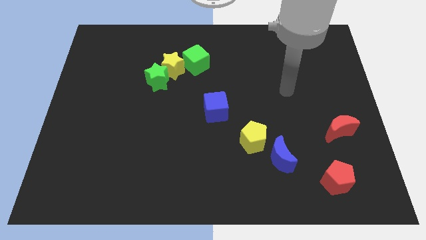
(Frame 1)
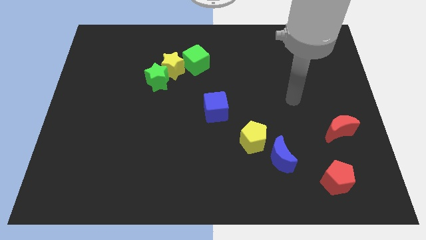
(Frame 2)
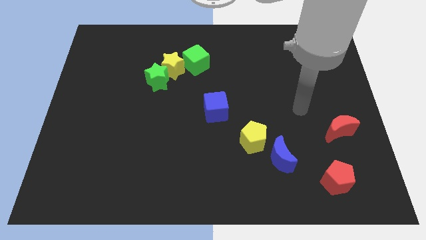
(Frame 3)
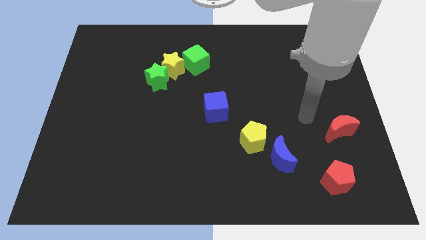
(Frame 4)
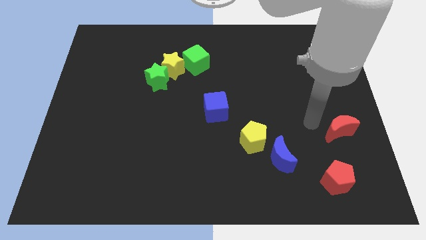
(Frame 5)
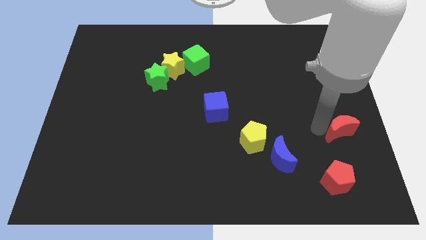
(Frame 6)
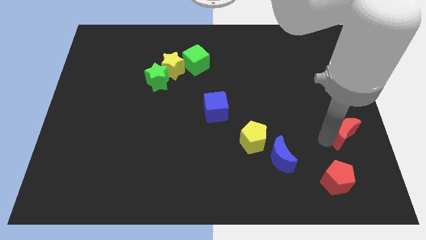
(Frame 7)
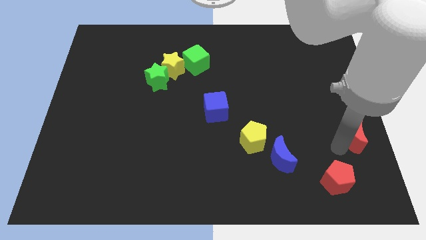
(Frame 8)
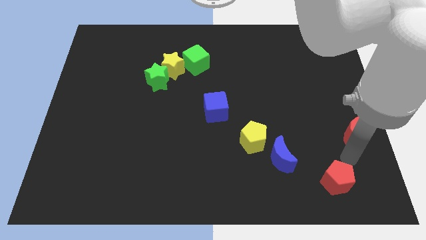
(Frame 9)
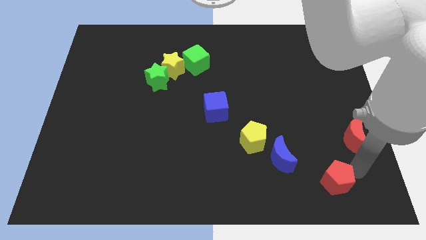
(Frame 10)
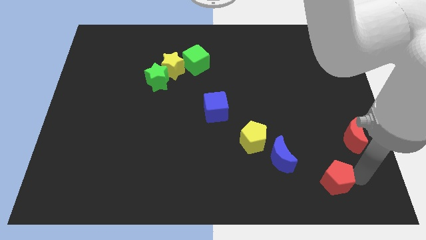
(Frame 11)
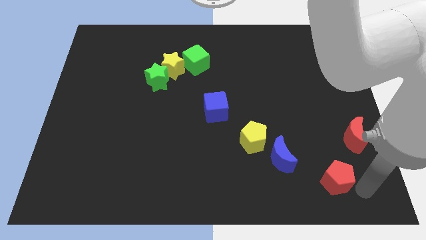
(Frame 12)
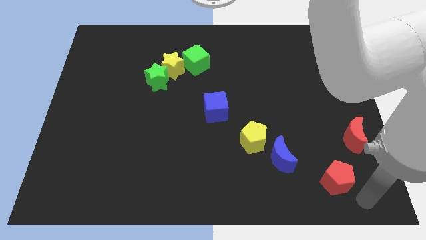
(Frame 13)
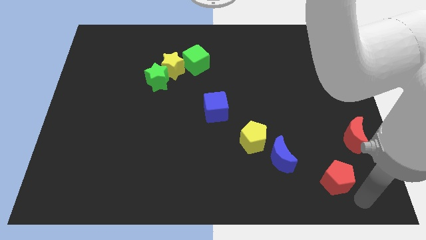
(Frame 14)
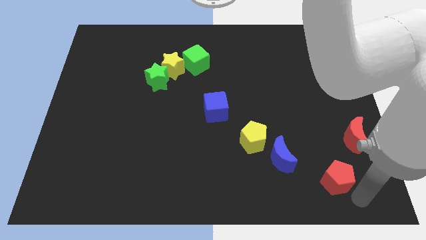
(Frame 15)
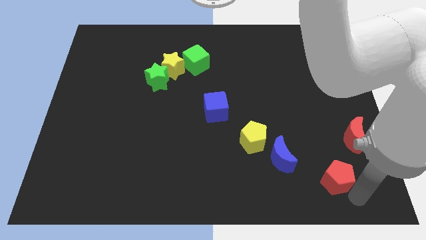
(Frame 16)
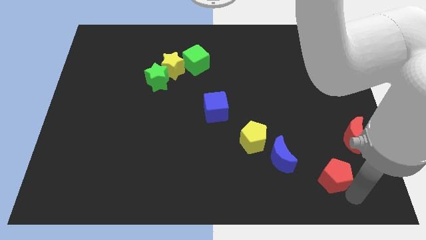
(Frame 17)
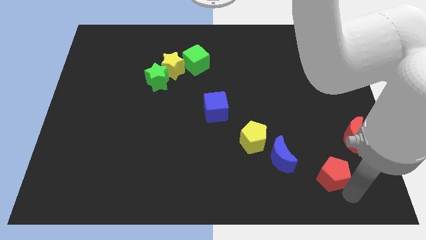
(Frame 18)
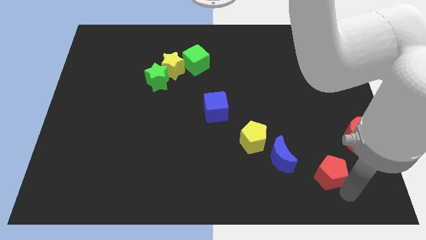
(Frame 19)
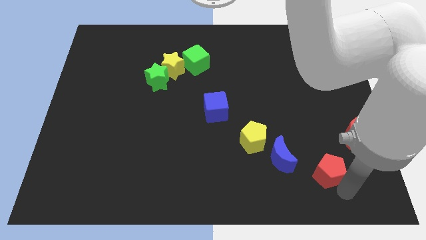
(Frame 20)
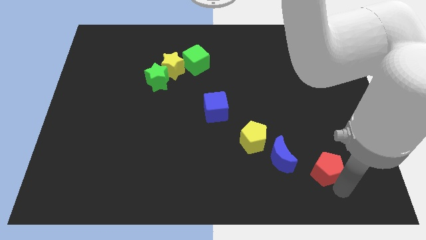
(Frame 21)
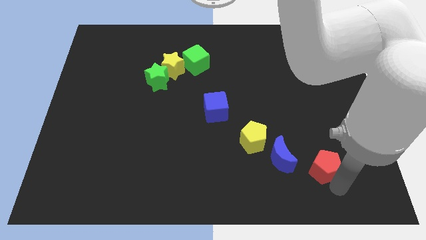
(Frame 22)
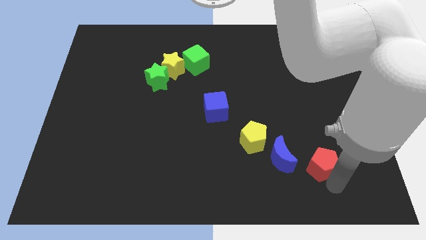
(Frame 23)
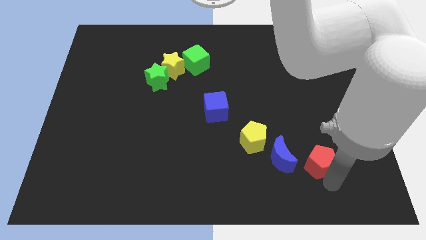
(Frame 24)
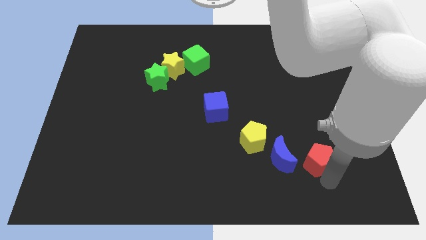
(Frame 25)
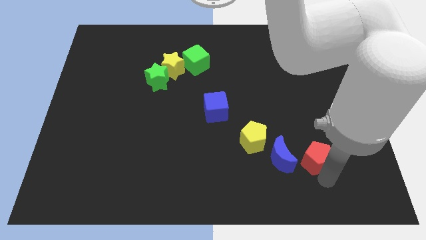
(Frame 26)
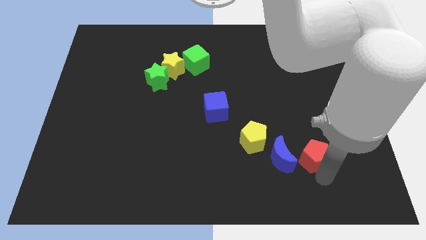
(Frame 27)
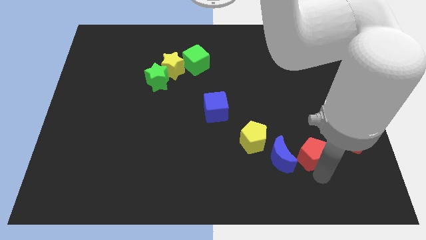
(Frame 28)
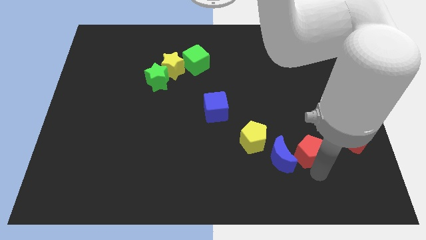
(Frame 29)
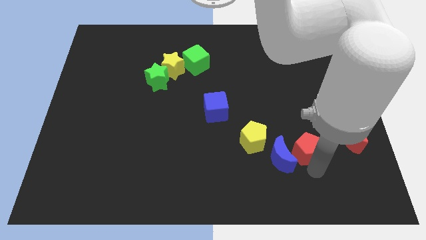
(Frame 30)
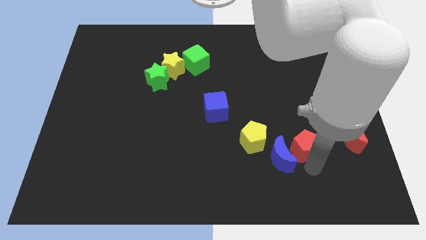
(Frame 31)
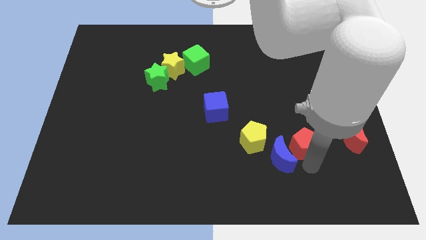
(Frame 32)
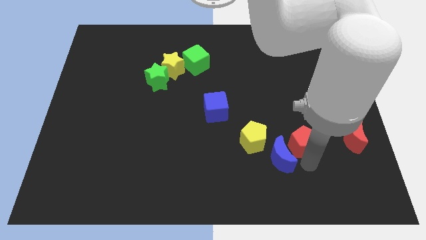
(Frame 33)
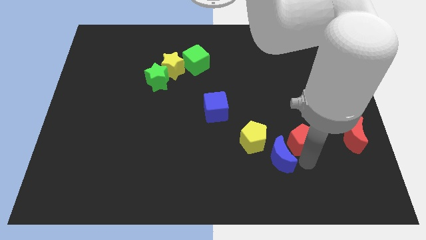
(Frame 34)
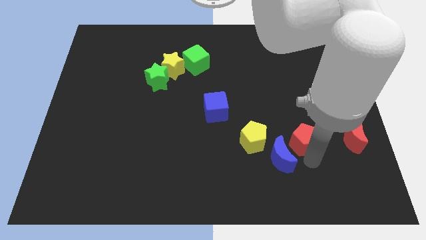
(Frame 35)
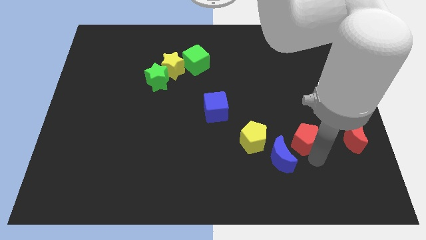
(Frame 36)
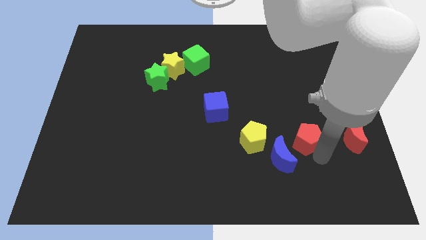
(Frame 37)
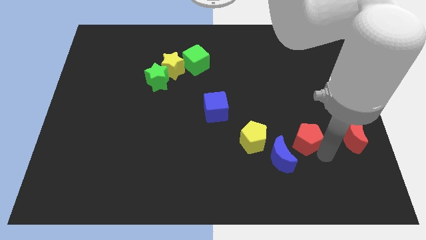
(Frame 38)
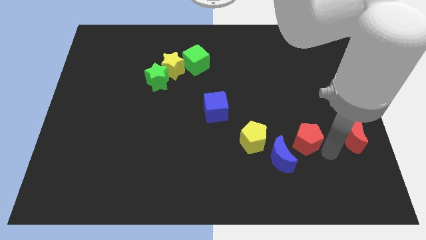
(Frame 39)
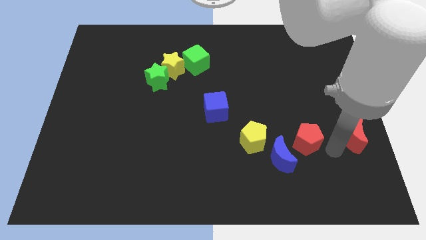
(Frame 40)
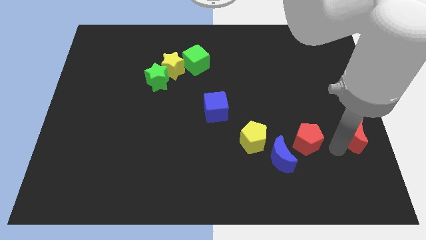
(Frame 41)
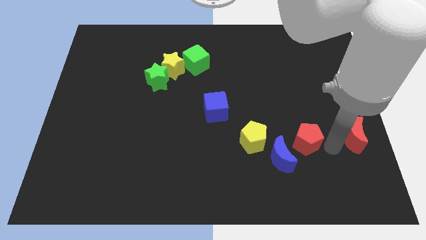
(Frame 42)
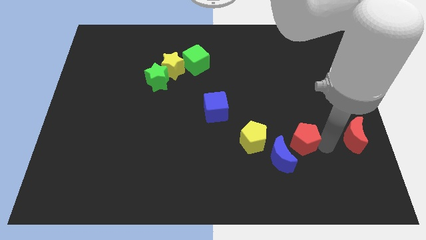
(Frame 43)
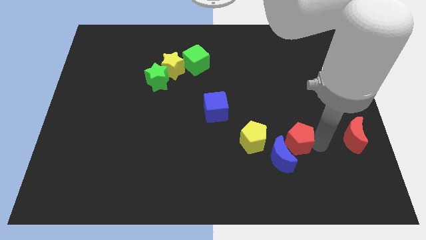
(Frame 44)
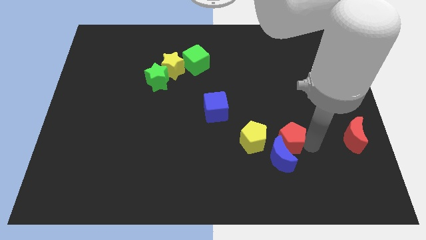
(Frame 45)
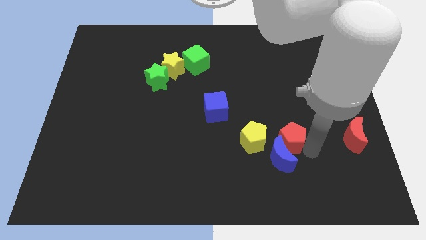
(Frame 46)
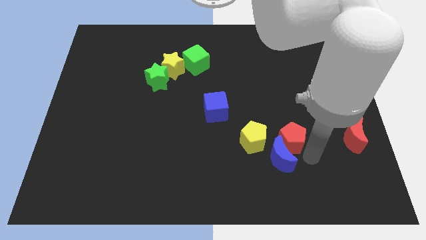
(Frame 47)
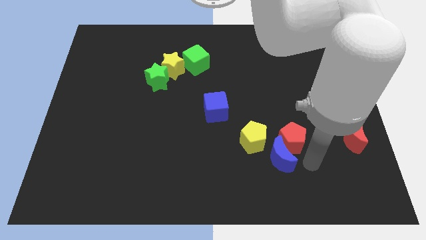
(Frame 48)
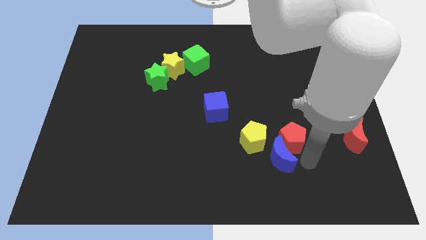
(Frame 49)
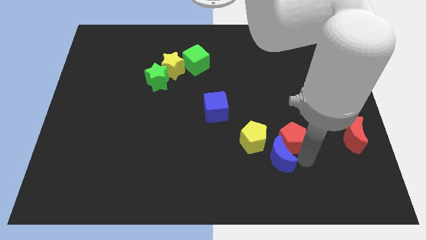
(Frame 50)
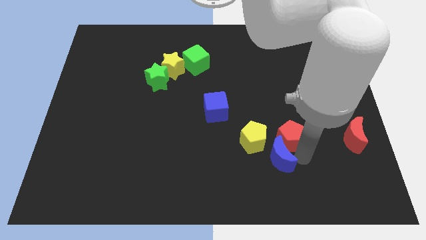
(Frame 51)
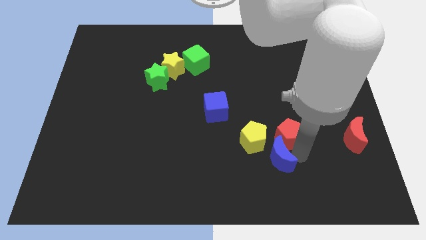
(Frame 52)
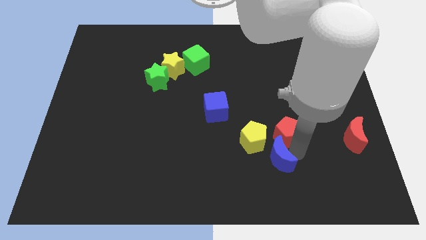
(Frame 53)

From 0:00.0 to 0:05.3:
slide the red pentagon to the top right side of the yellow pentagon

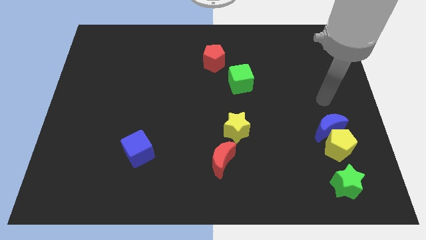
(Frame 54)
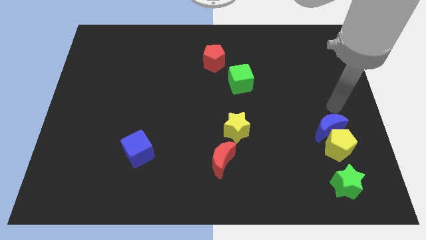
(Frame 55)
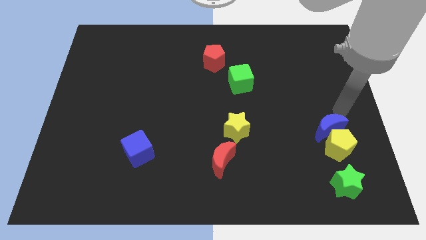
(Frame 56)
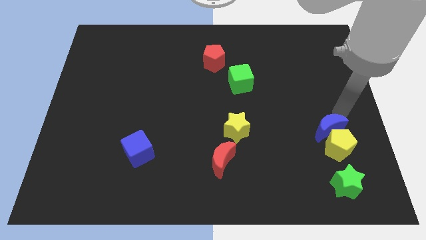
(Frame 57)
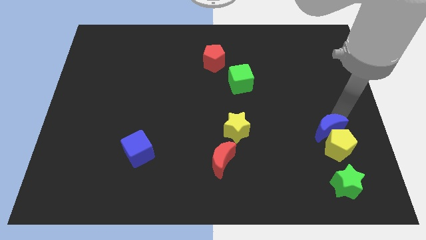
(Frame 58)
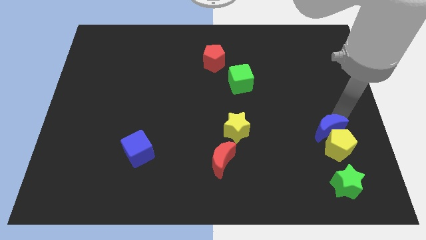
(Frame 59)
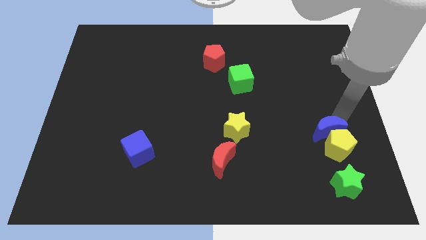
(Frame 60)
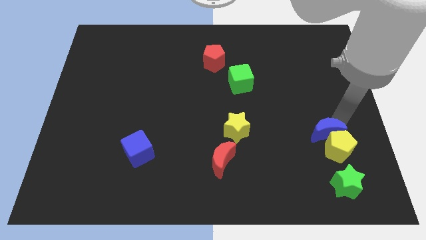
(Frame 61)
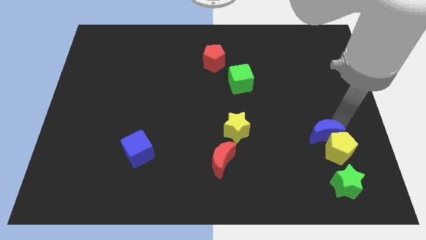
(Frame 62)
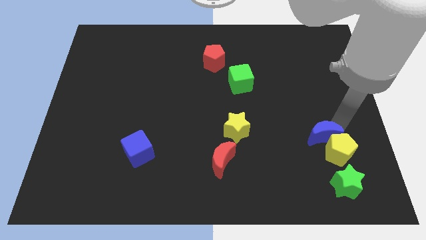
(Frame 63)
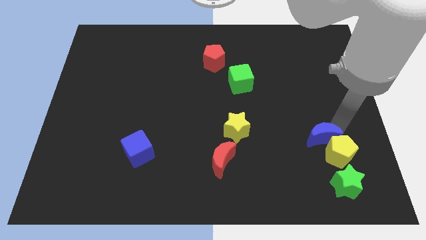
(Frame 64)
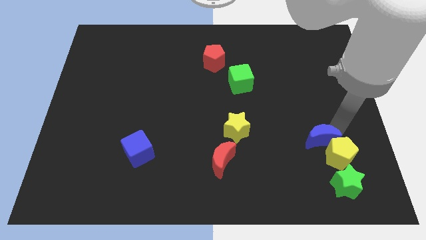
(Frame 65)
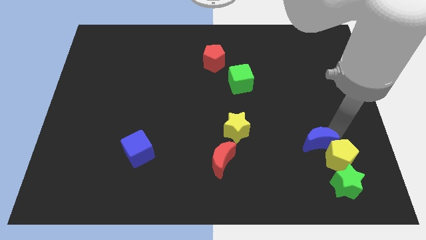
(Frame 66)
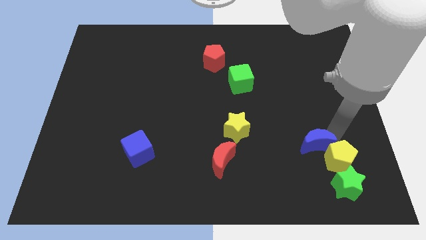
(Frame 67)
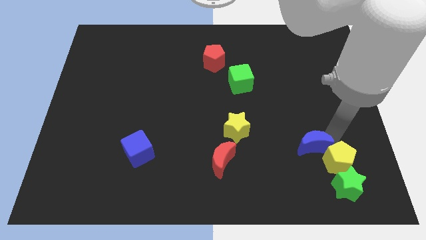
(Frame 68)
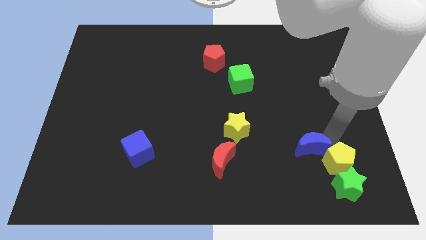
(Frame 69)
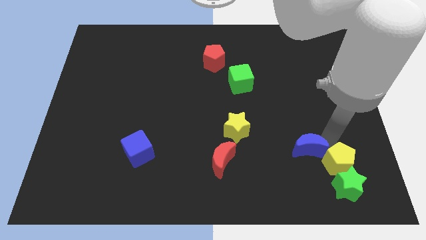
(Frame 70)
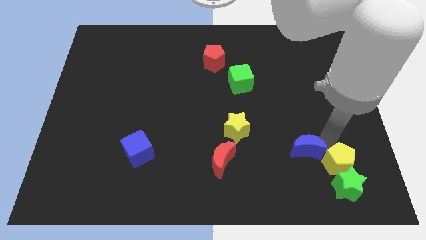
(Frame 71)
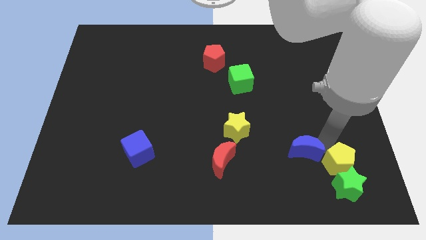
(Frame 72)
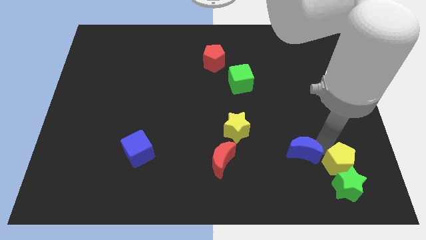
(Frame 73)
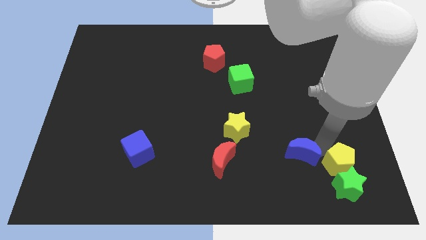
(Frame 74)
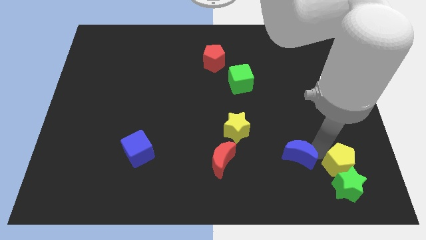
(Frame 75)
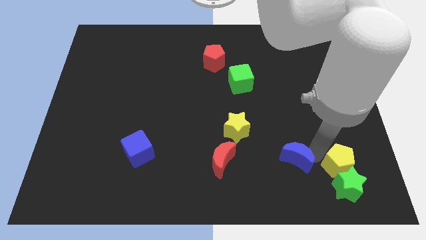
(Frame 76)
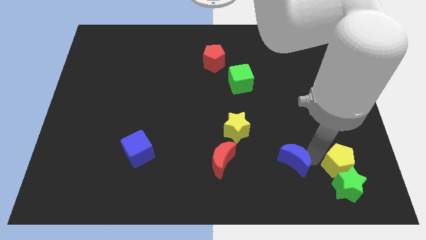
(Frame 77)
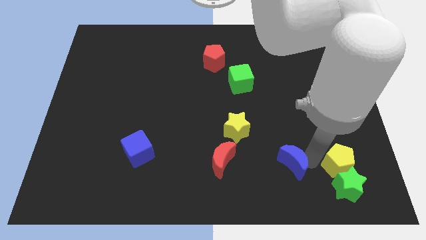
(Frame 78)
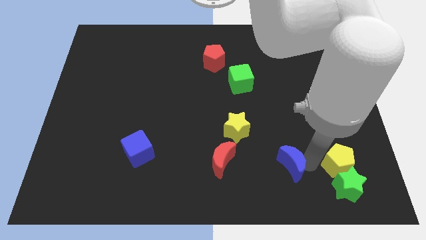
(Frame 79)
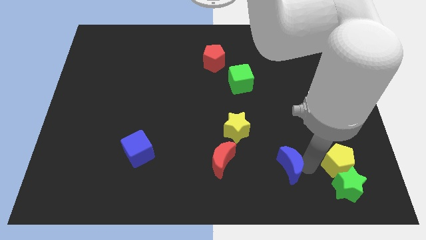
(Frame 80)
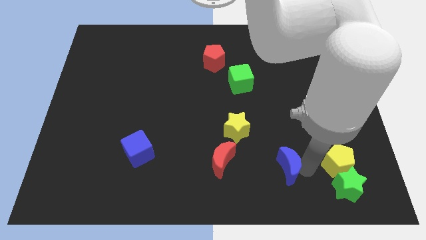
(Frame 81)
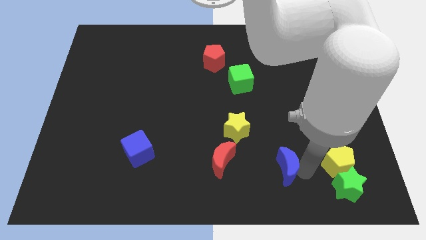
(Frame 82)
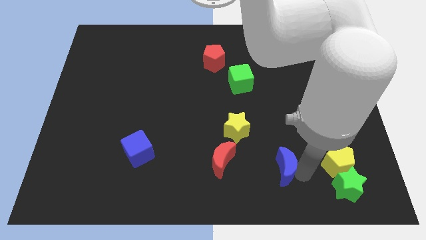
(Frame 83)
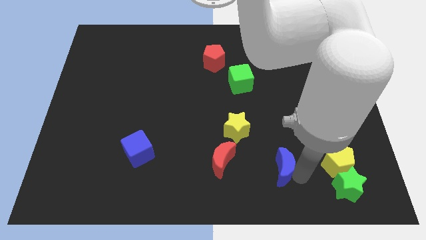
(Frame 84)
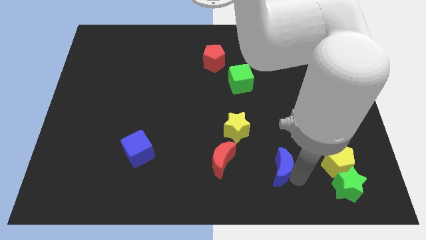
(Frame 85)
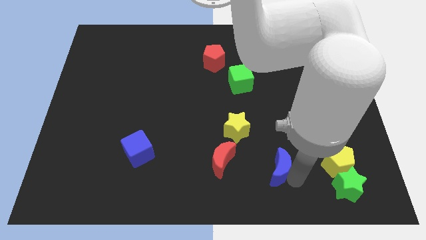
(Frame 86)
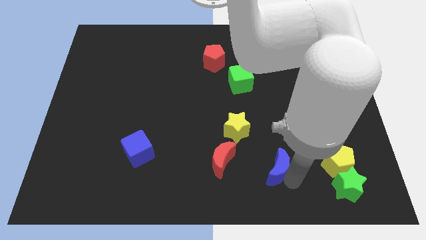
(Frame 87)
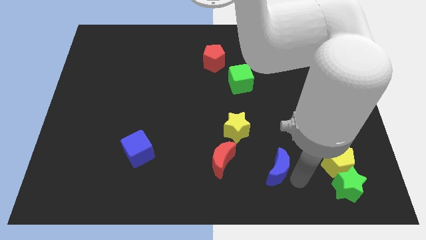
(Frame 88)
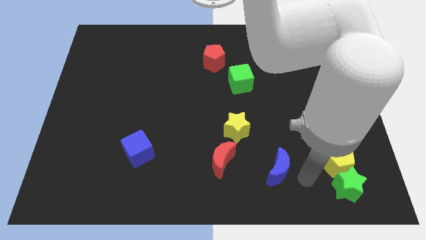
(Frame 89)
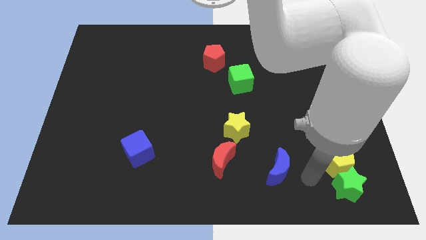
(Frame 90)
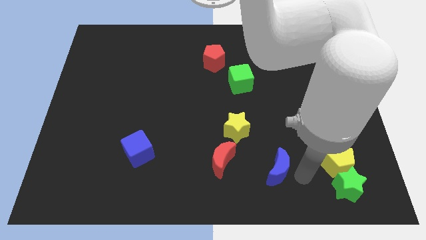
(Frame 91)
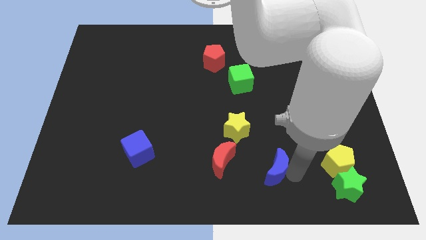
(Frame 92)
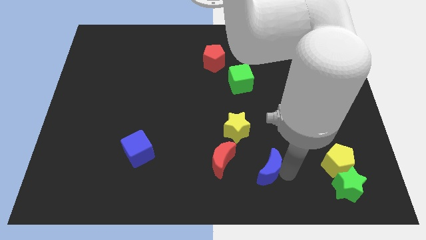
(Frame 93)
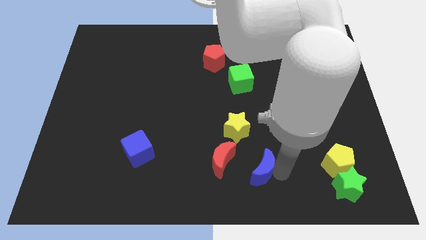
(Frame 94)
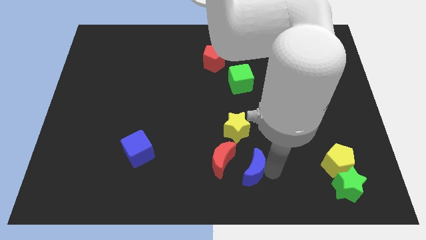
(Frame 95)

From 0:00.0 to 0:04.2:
slide the blue moon below the yellow star
